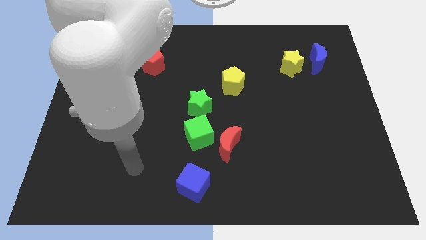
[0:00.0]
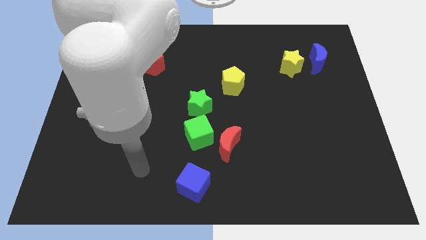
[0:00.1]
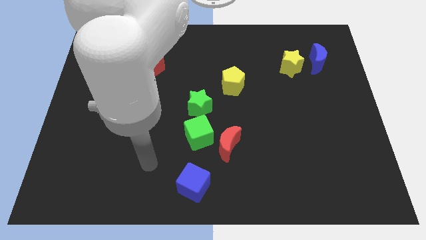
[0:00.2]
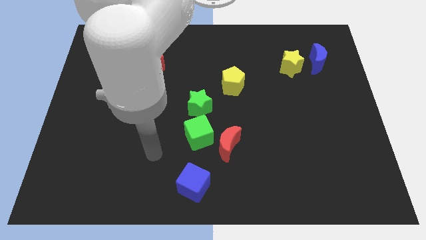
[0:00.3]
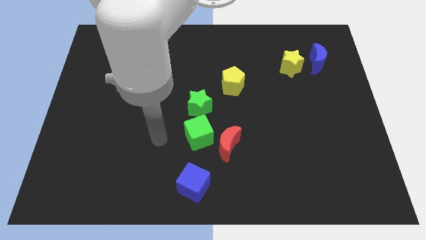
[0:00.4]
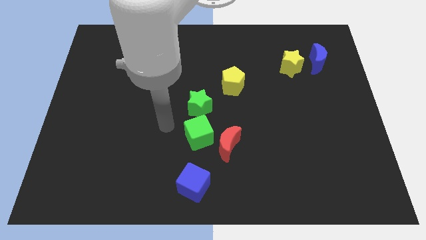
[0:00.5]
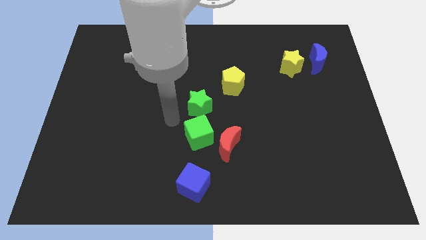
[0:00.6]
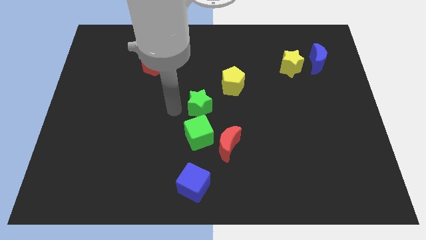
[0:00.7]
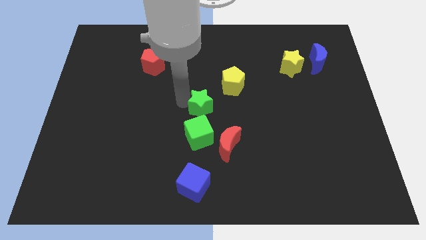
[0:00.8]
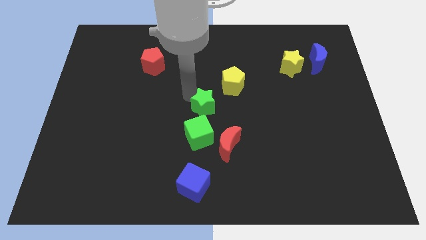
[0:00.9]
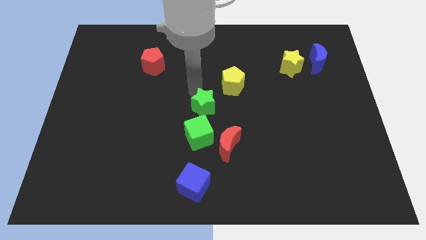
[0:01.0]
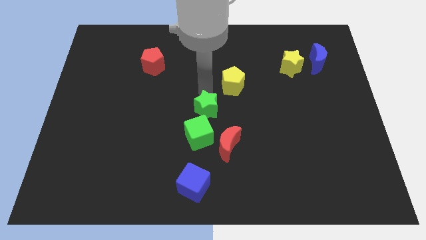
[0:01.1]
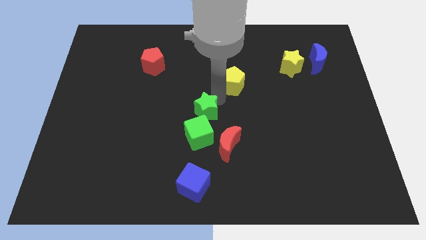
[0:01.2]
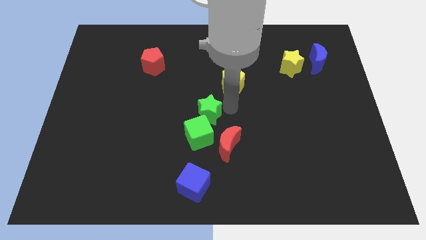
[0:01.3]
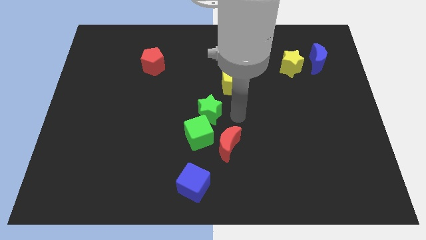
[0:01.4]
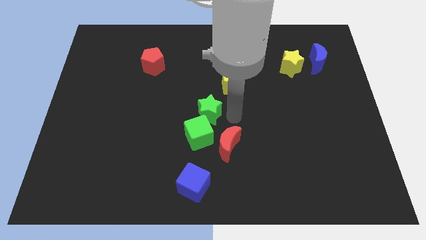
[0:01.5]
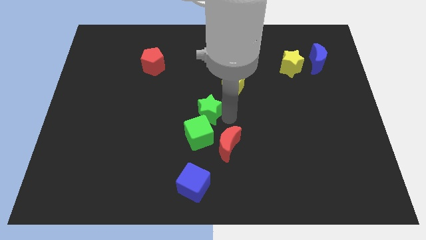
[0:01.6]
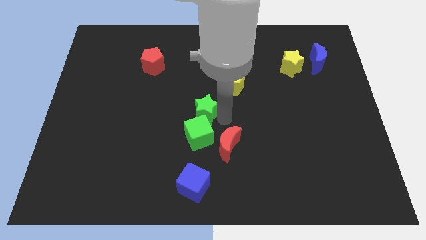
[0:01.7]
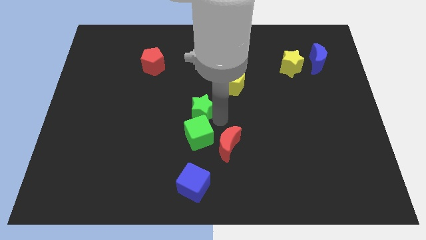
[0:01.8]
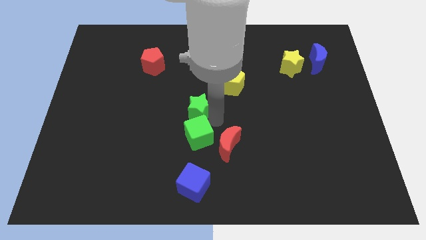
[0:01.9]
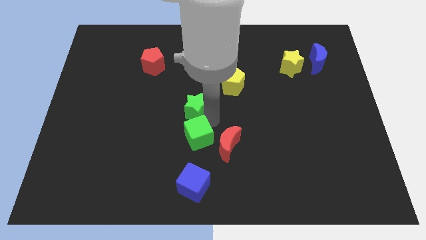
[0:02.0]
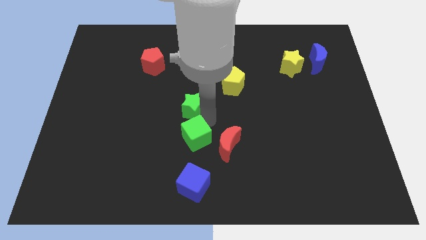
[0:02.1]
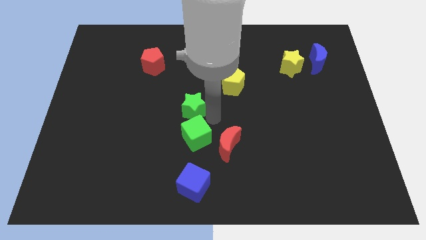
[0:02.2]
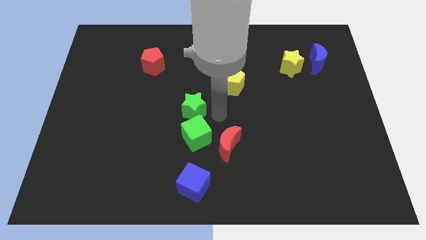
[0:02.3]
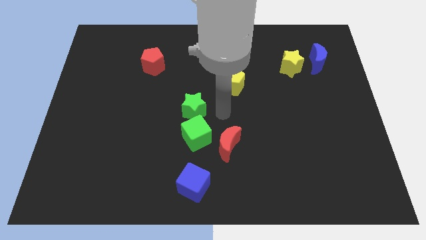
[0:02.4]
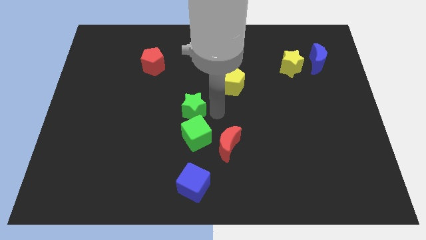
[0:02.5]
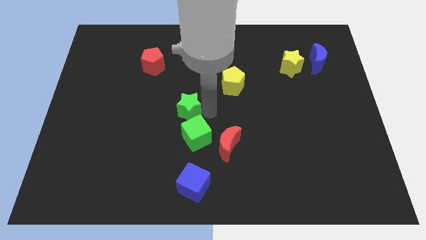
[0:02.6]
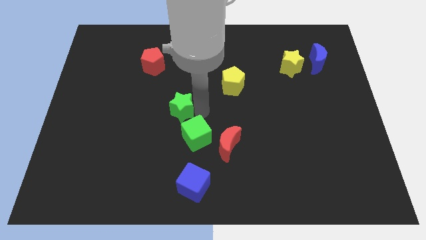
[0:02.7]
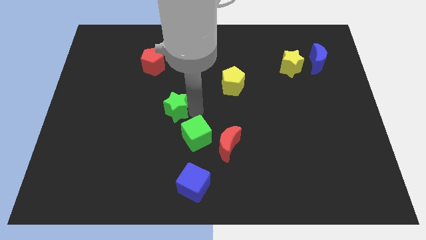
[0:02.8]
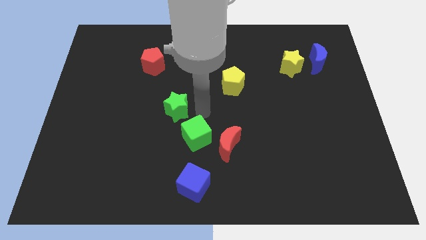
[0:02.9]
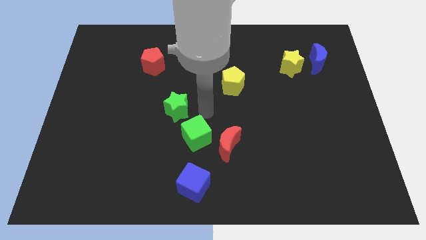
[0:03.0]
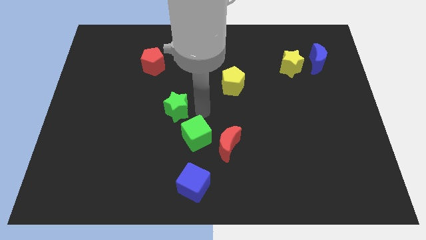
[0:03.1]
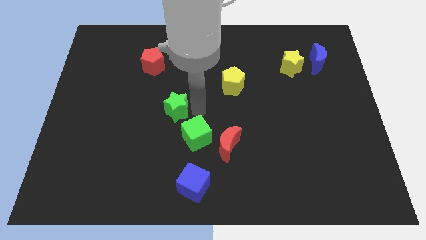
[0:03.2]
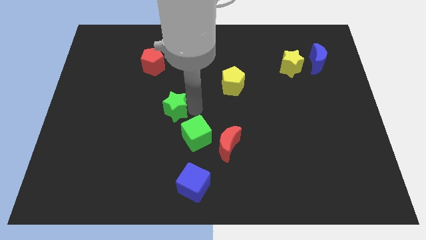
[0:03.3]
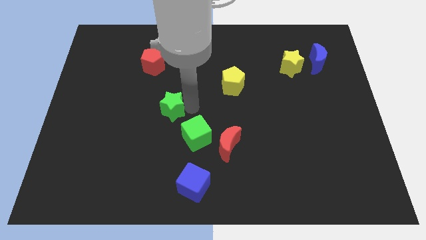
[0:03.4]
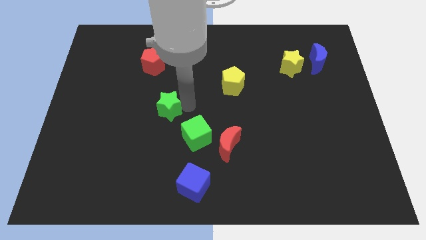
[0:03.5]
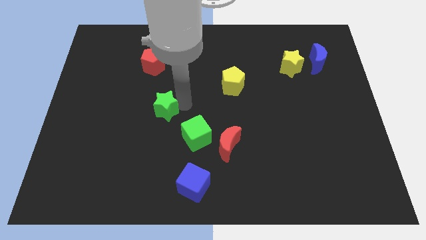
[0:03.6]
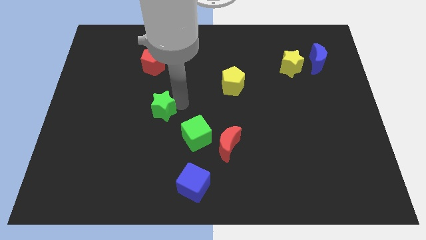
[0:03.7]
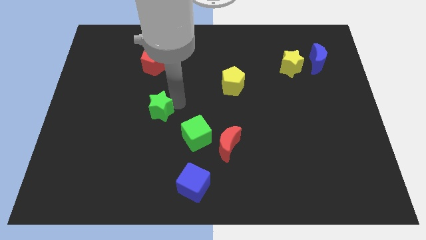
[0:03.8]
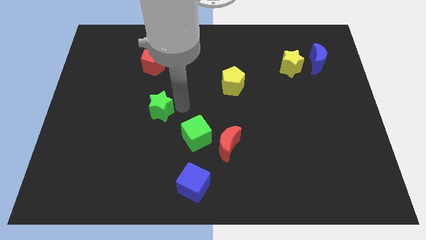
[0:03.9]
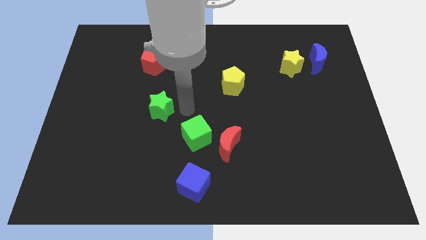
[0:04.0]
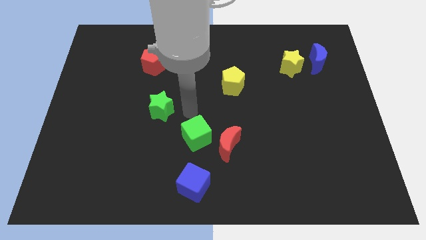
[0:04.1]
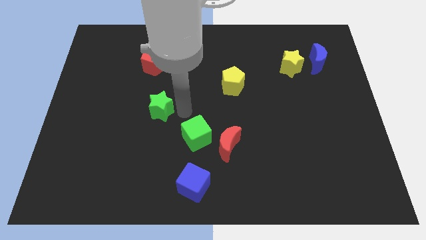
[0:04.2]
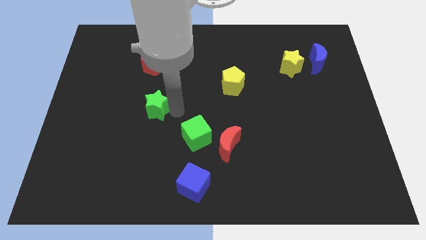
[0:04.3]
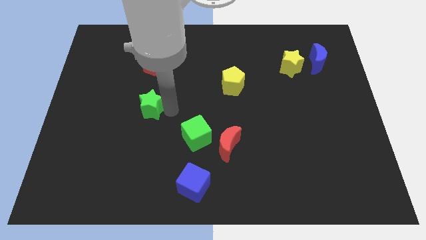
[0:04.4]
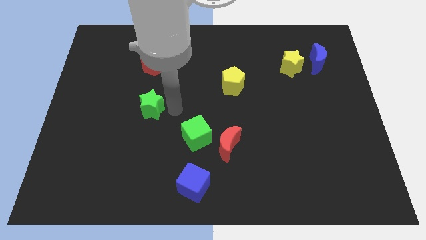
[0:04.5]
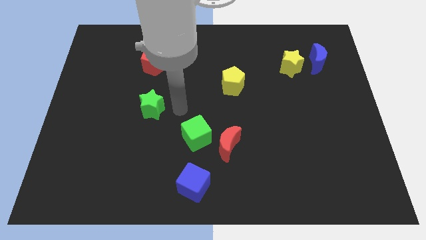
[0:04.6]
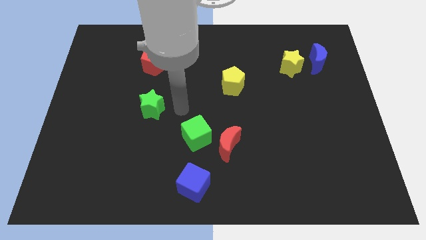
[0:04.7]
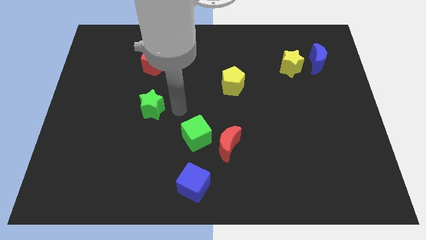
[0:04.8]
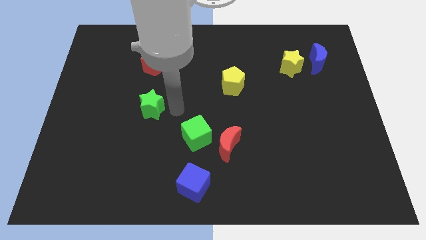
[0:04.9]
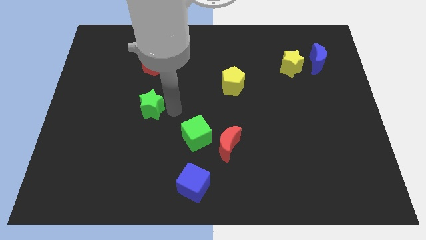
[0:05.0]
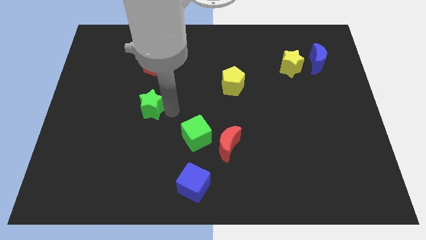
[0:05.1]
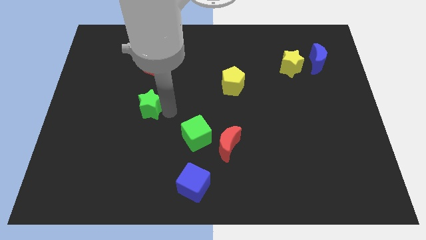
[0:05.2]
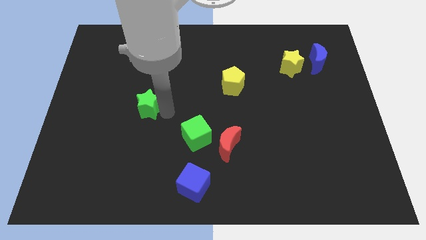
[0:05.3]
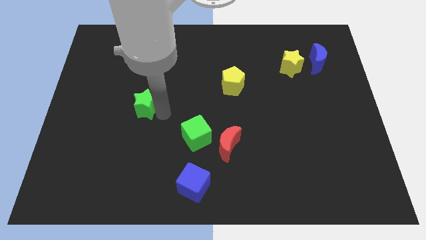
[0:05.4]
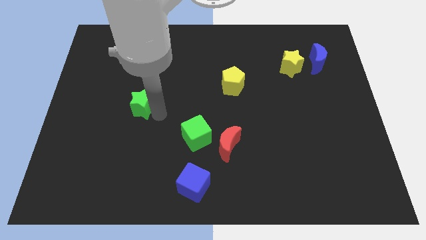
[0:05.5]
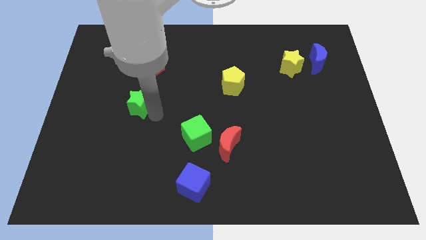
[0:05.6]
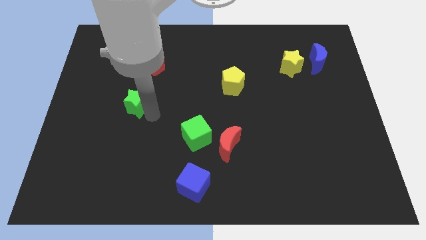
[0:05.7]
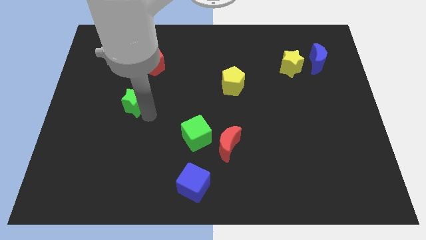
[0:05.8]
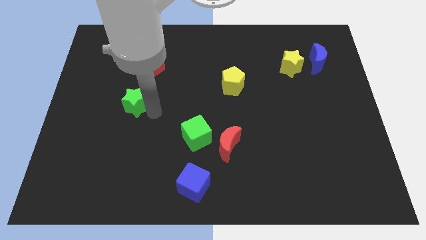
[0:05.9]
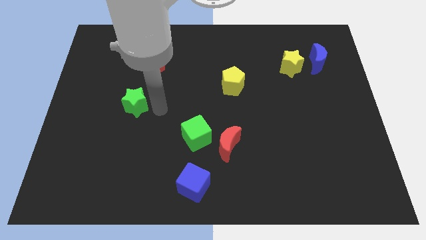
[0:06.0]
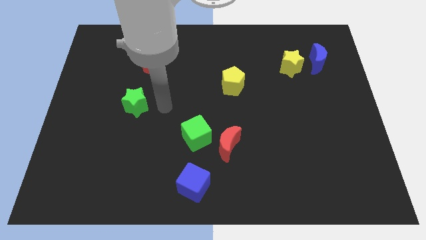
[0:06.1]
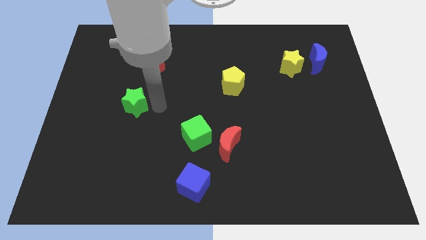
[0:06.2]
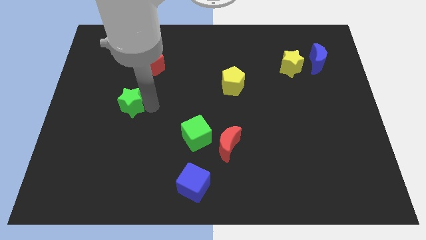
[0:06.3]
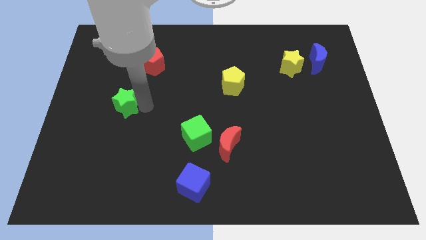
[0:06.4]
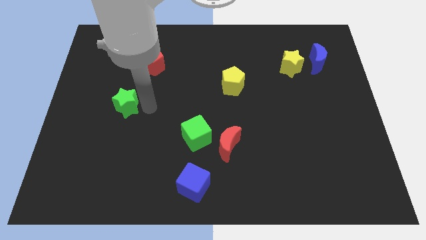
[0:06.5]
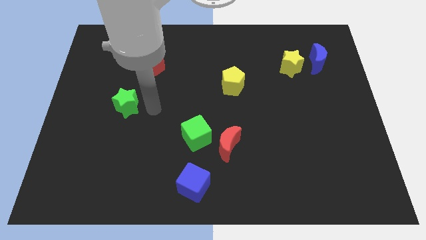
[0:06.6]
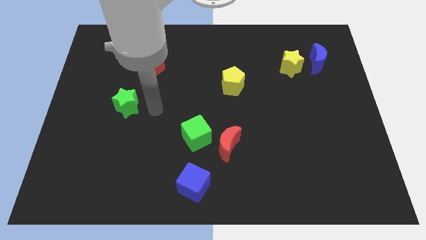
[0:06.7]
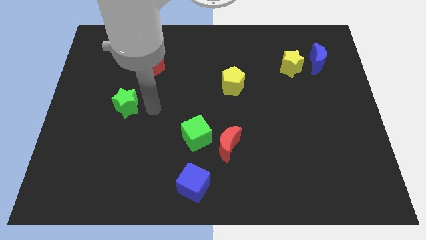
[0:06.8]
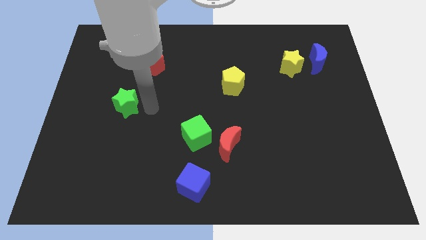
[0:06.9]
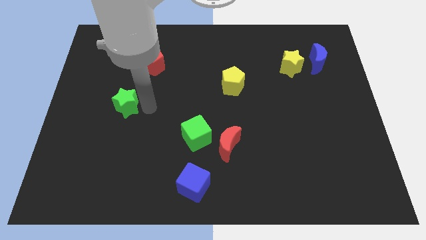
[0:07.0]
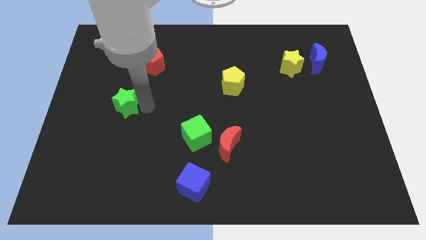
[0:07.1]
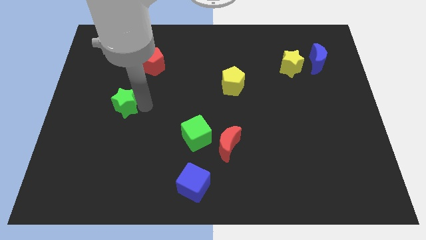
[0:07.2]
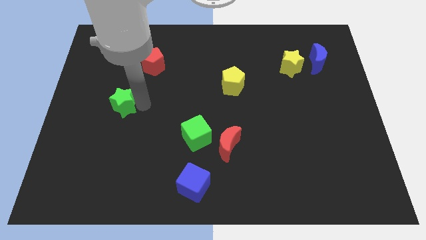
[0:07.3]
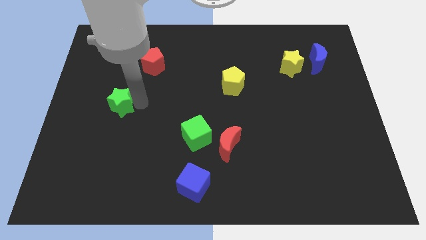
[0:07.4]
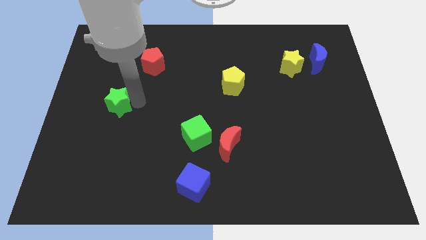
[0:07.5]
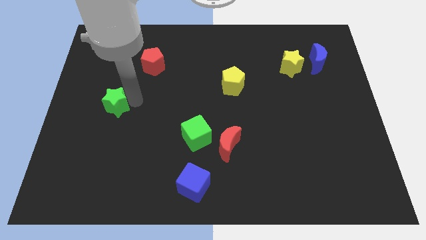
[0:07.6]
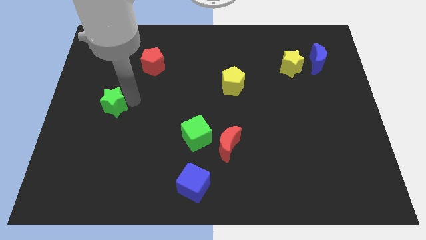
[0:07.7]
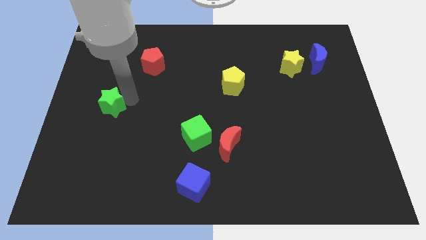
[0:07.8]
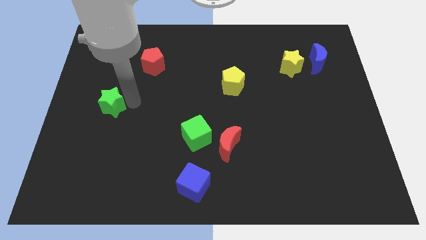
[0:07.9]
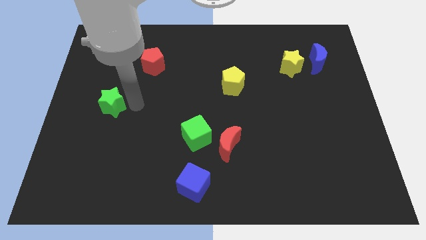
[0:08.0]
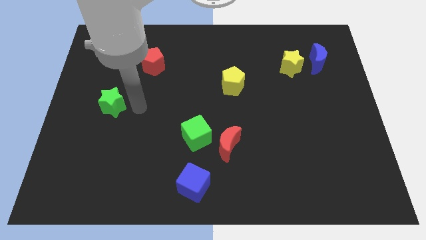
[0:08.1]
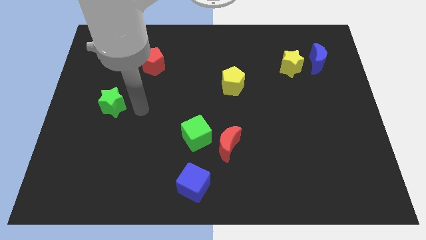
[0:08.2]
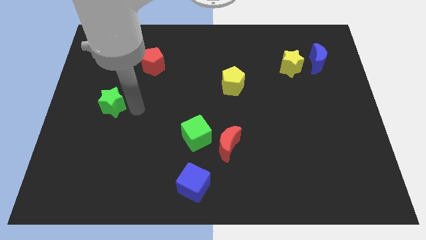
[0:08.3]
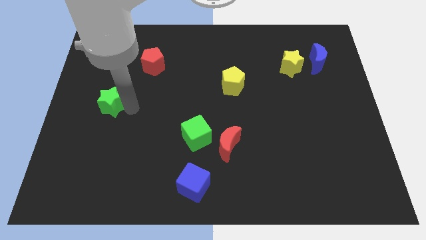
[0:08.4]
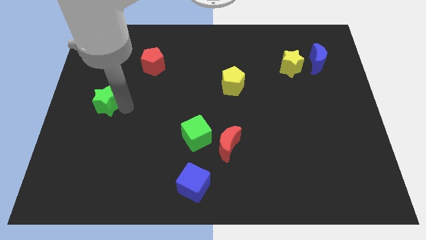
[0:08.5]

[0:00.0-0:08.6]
put the green star to the center left
